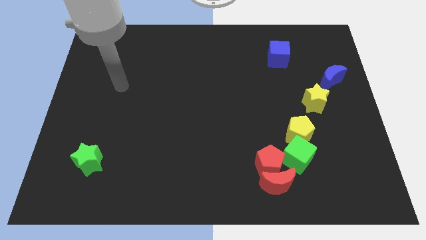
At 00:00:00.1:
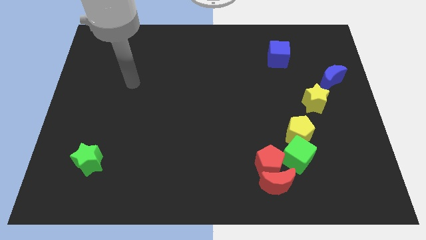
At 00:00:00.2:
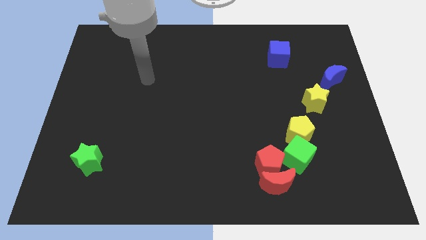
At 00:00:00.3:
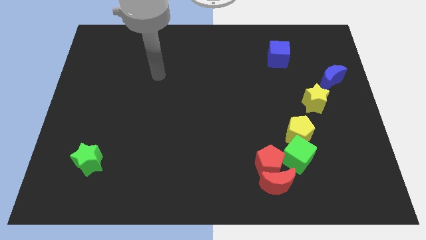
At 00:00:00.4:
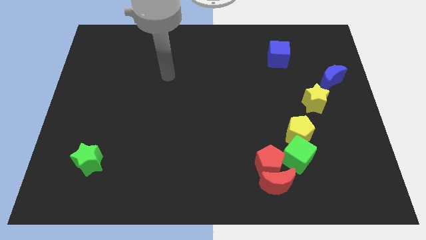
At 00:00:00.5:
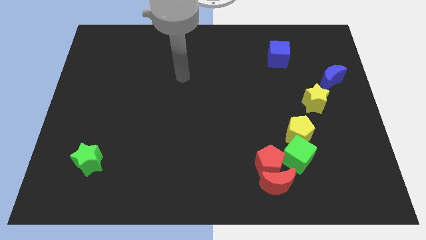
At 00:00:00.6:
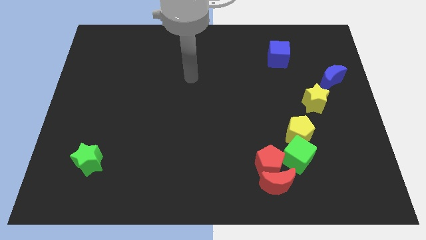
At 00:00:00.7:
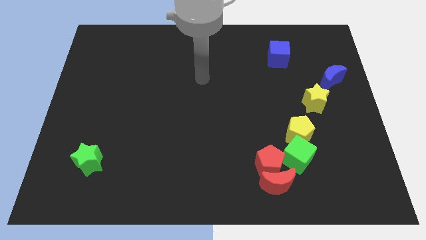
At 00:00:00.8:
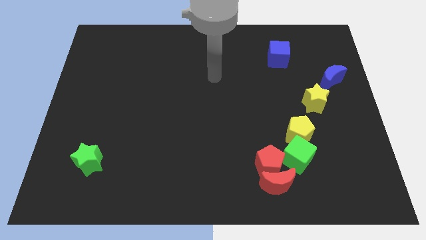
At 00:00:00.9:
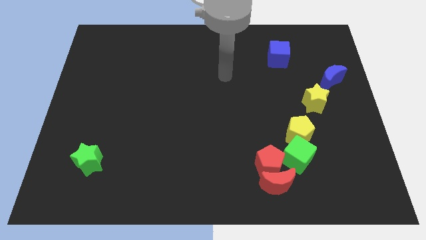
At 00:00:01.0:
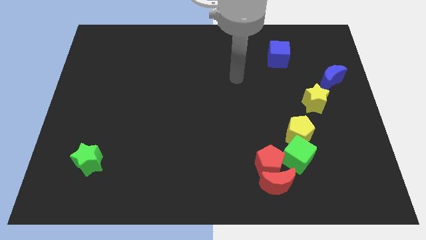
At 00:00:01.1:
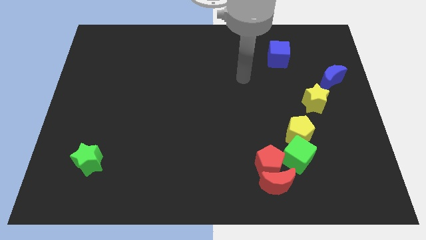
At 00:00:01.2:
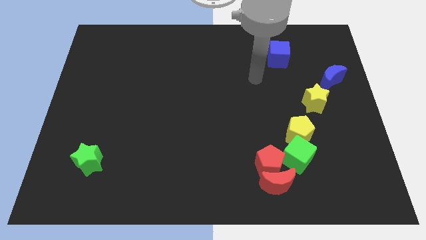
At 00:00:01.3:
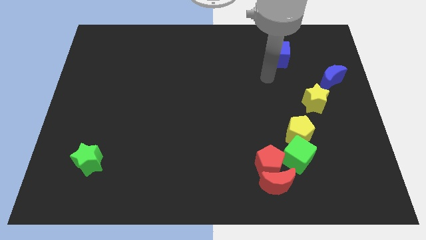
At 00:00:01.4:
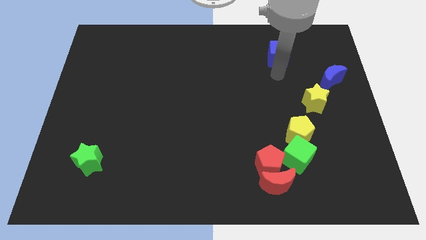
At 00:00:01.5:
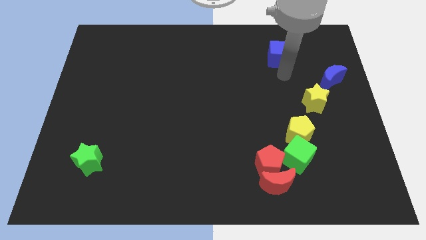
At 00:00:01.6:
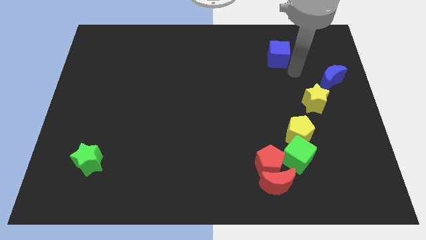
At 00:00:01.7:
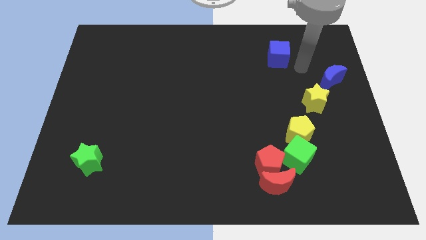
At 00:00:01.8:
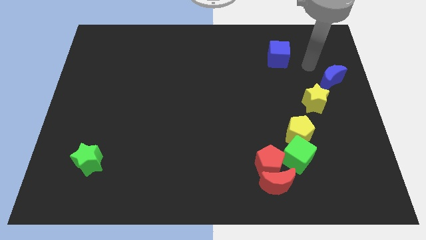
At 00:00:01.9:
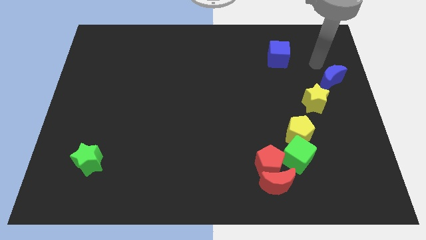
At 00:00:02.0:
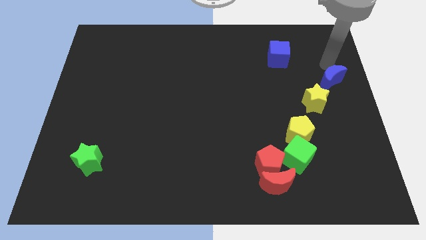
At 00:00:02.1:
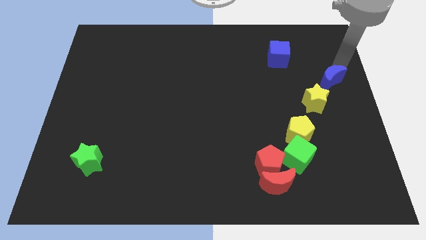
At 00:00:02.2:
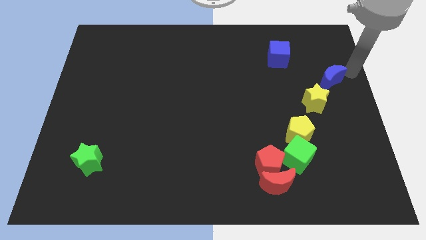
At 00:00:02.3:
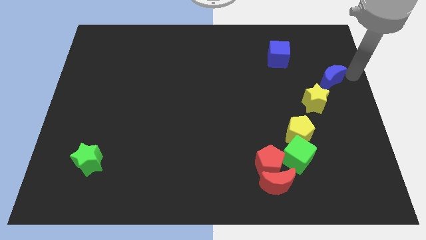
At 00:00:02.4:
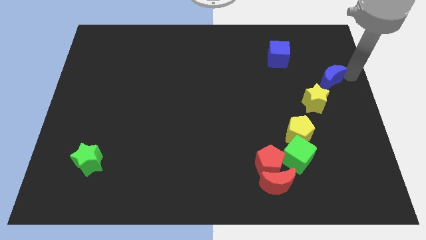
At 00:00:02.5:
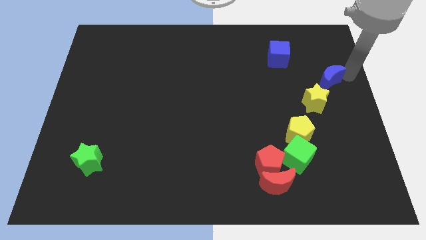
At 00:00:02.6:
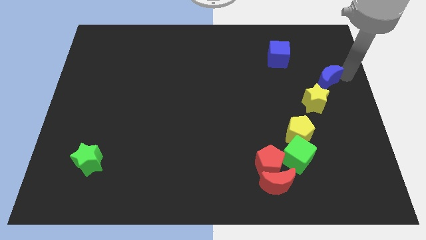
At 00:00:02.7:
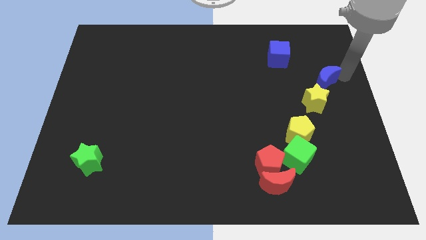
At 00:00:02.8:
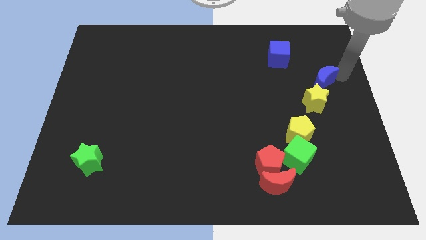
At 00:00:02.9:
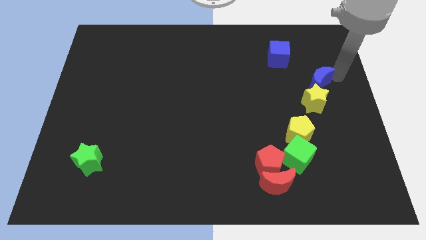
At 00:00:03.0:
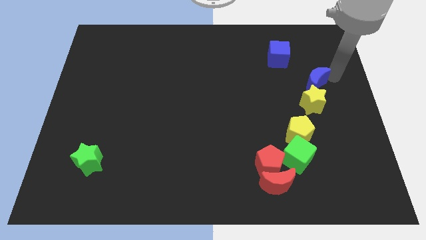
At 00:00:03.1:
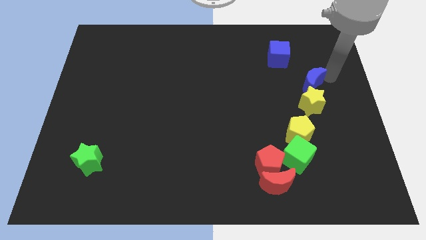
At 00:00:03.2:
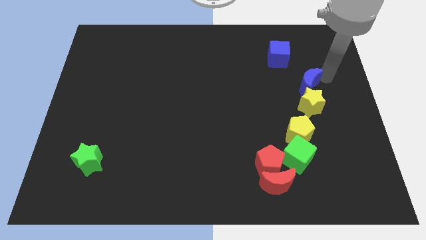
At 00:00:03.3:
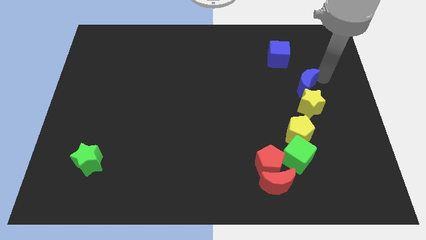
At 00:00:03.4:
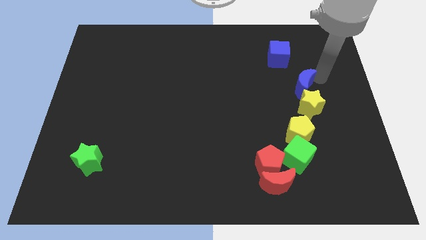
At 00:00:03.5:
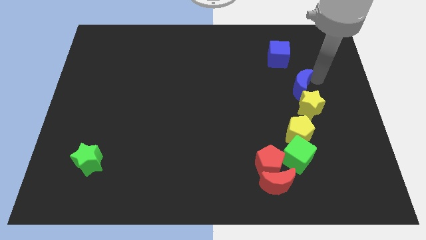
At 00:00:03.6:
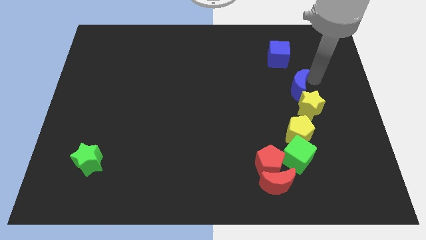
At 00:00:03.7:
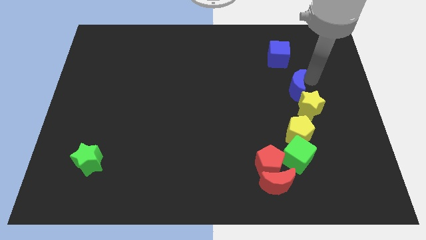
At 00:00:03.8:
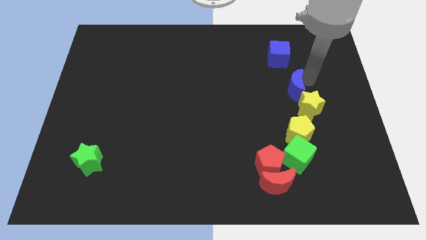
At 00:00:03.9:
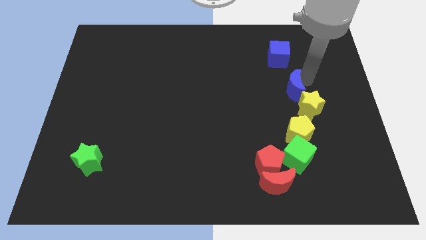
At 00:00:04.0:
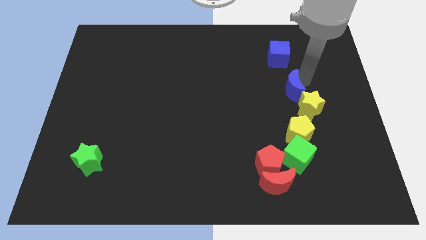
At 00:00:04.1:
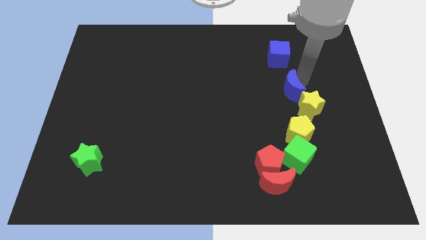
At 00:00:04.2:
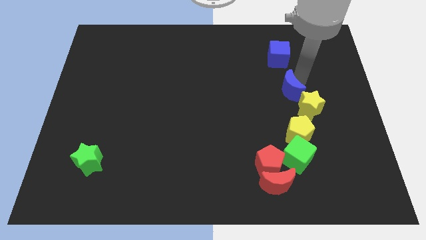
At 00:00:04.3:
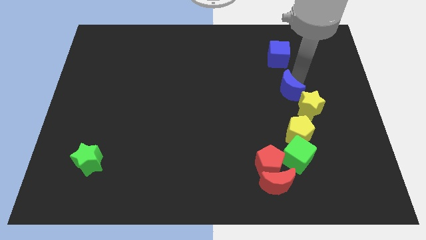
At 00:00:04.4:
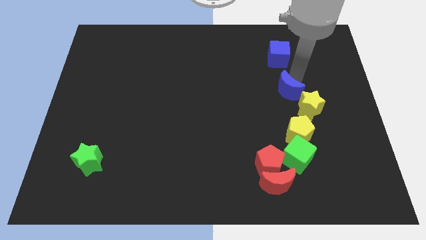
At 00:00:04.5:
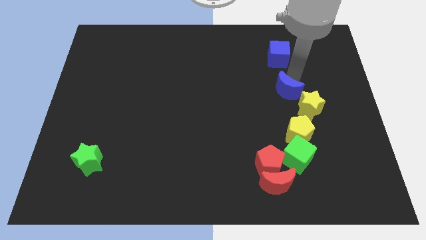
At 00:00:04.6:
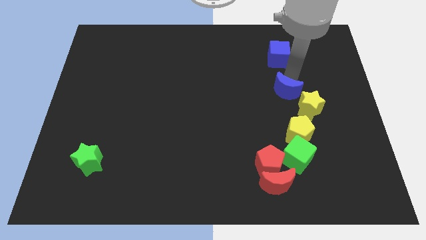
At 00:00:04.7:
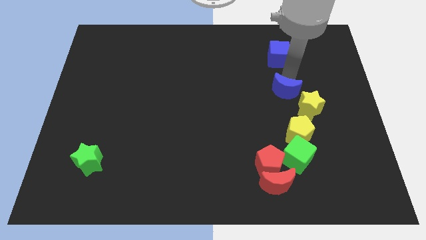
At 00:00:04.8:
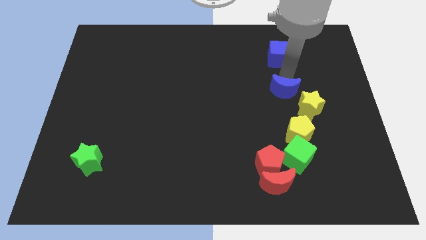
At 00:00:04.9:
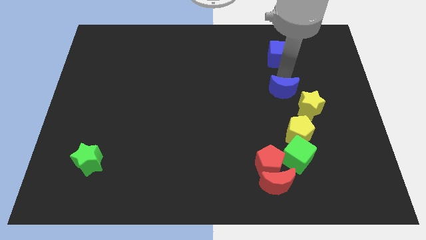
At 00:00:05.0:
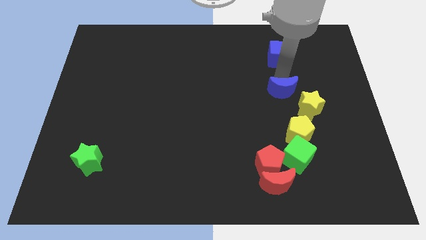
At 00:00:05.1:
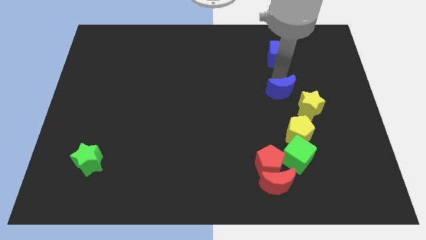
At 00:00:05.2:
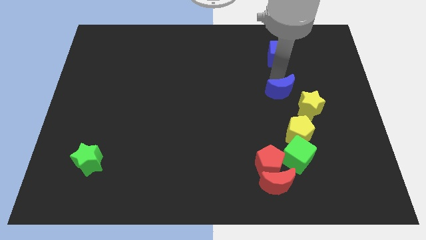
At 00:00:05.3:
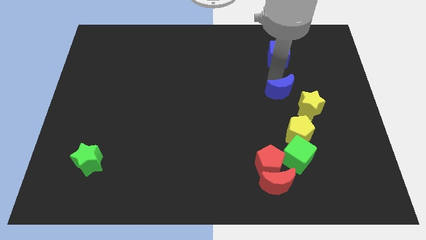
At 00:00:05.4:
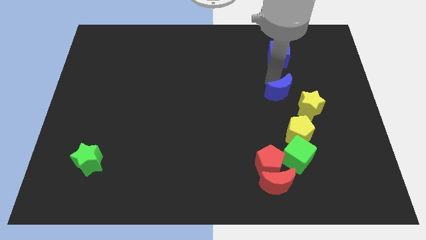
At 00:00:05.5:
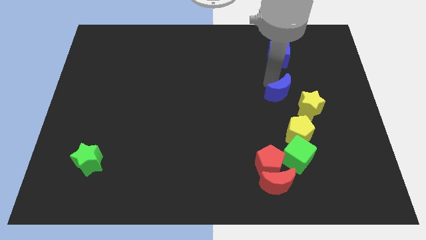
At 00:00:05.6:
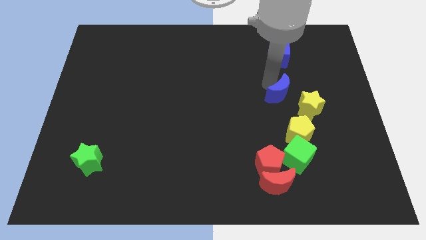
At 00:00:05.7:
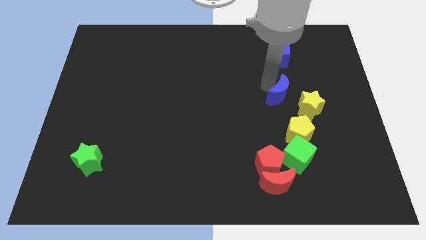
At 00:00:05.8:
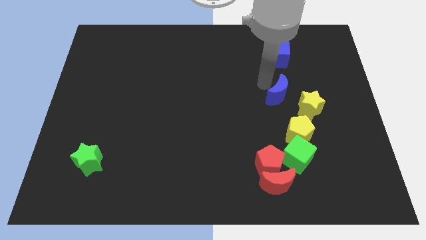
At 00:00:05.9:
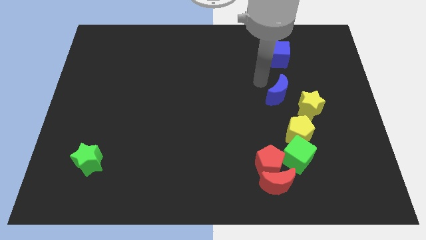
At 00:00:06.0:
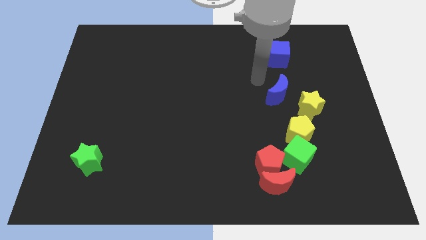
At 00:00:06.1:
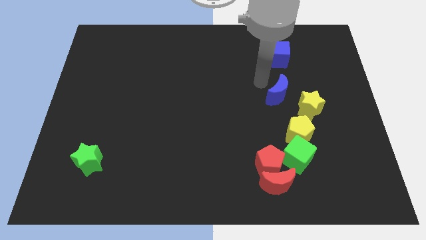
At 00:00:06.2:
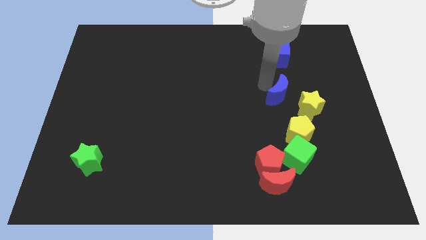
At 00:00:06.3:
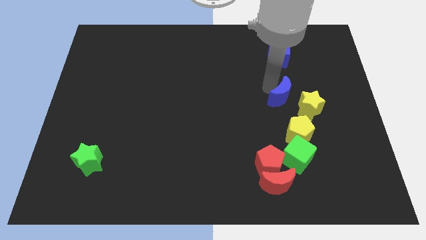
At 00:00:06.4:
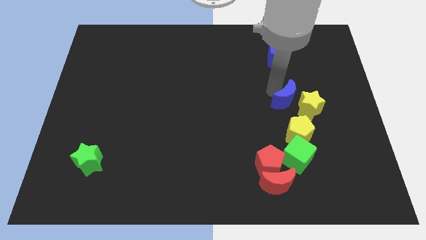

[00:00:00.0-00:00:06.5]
move the blue moon to the top side of the green cube
